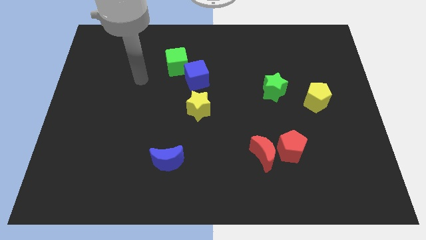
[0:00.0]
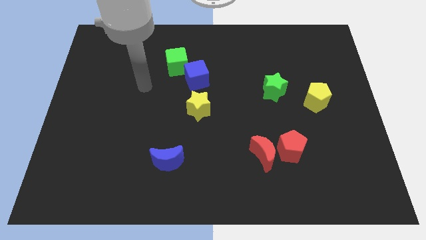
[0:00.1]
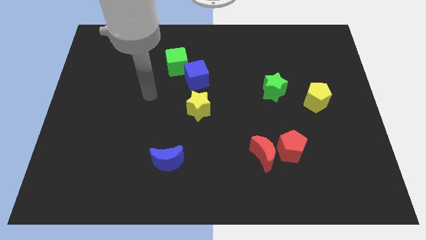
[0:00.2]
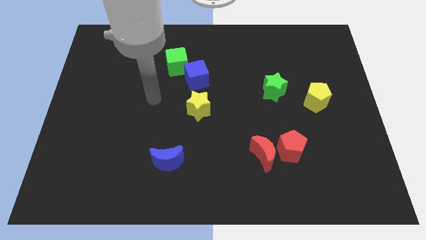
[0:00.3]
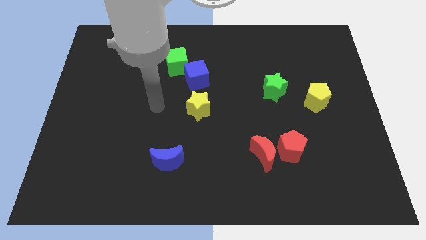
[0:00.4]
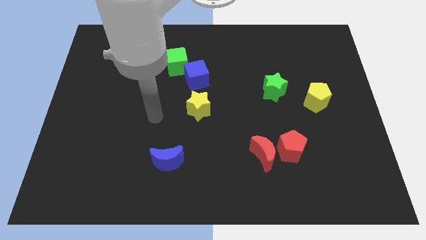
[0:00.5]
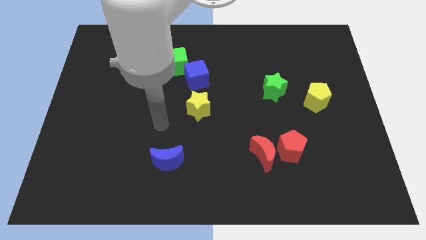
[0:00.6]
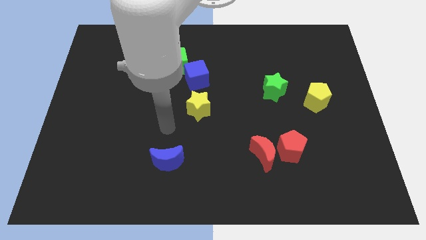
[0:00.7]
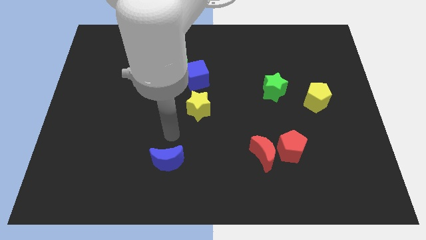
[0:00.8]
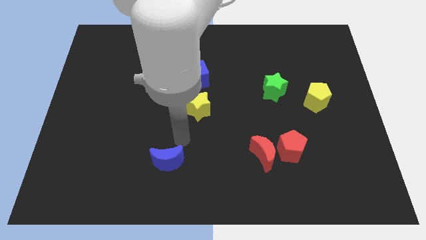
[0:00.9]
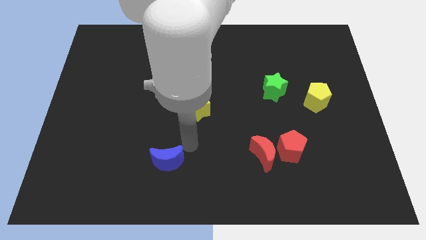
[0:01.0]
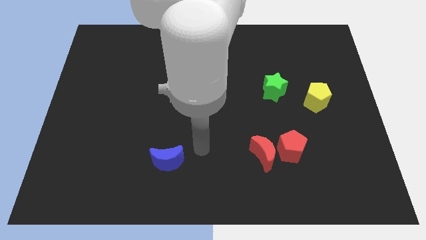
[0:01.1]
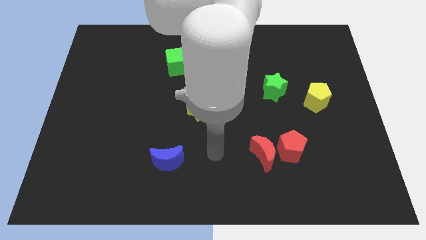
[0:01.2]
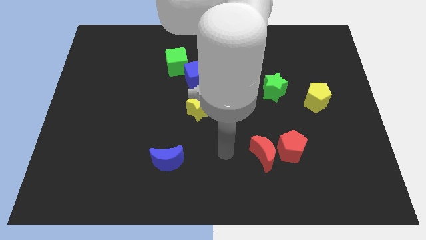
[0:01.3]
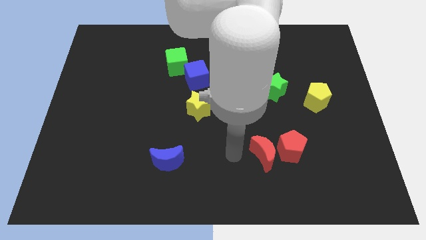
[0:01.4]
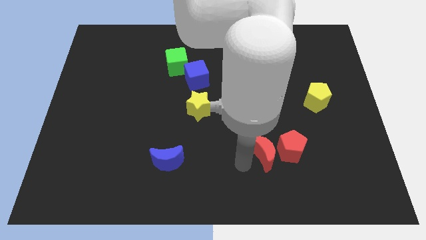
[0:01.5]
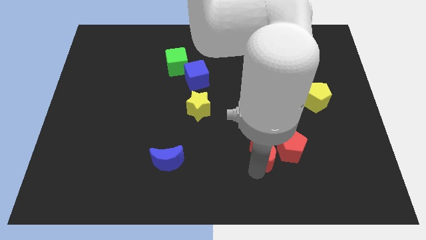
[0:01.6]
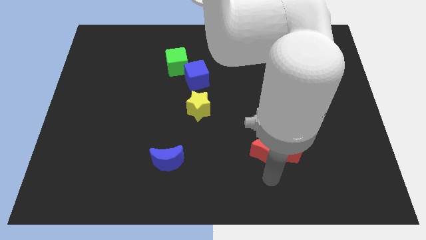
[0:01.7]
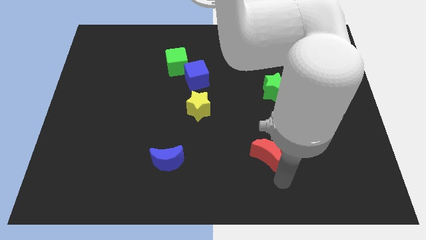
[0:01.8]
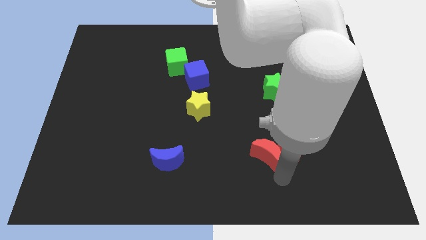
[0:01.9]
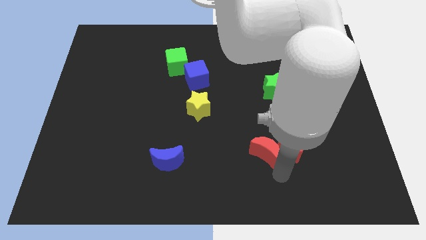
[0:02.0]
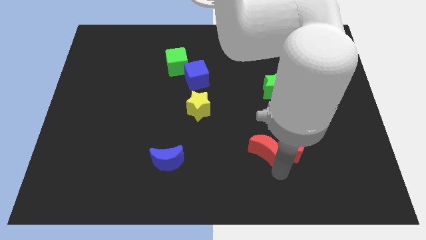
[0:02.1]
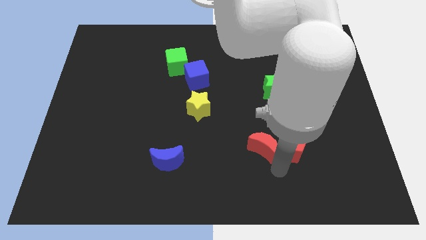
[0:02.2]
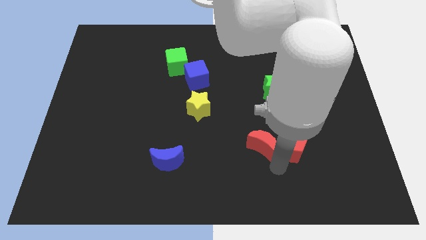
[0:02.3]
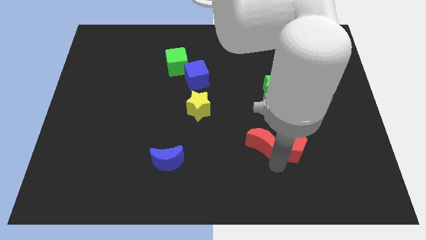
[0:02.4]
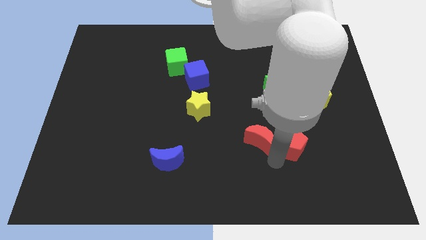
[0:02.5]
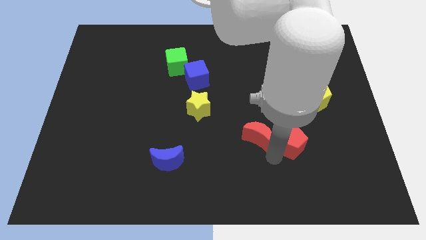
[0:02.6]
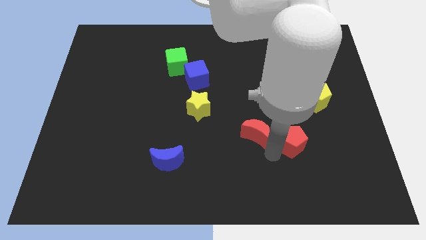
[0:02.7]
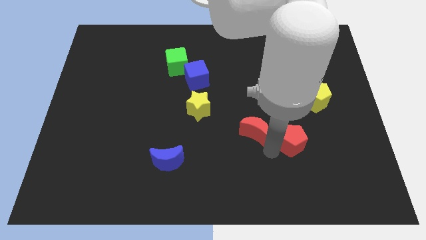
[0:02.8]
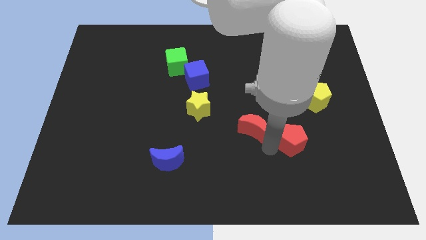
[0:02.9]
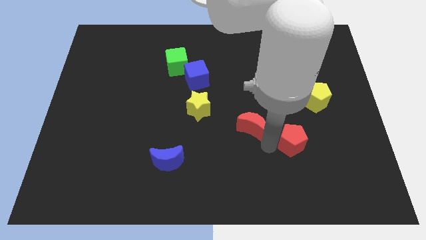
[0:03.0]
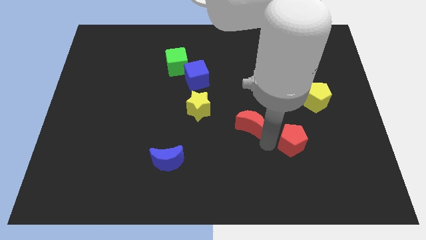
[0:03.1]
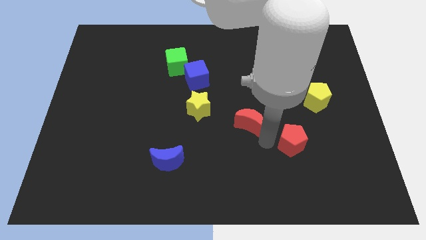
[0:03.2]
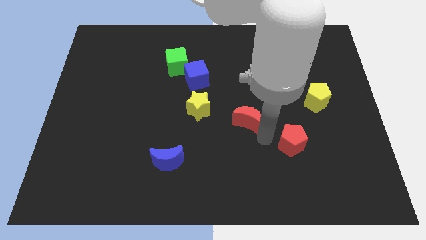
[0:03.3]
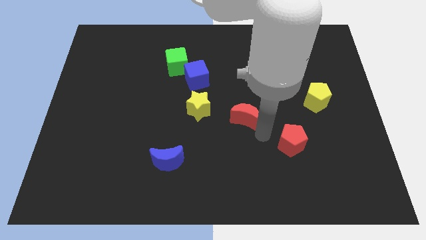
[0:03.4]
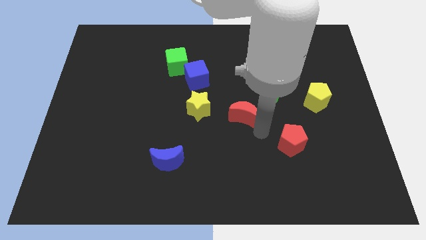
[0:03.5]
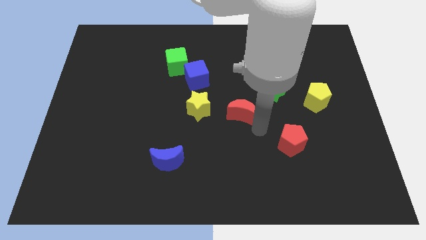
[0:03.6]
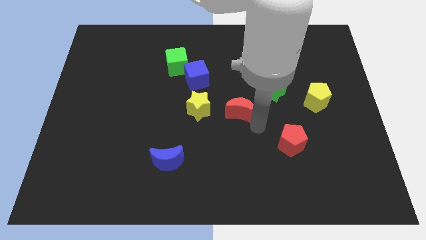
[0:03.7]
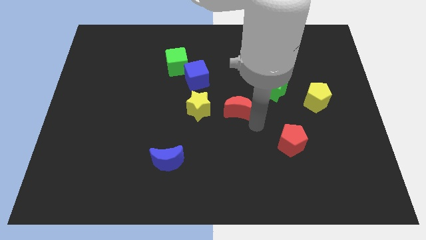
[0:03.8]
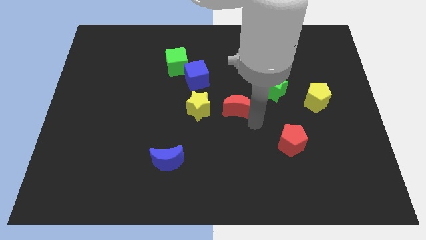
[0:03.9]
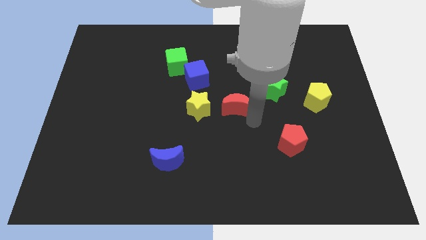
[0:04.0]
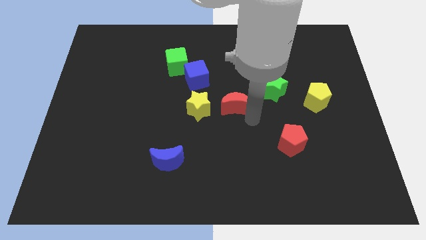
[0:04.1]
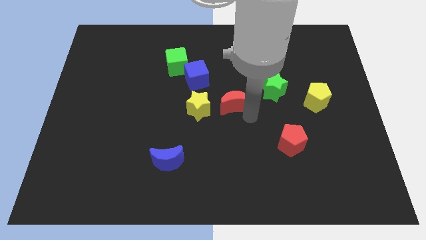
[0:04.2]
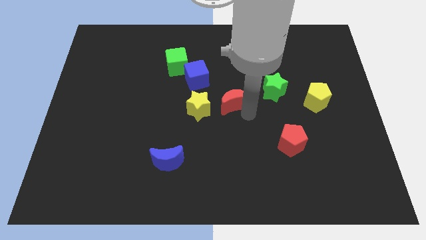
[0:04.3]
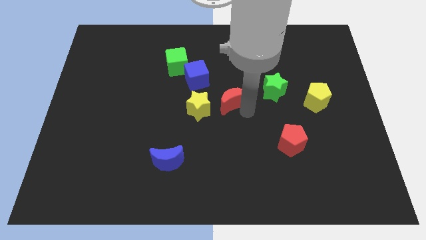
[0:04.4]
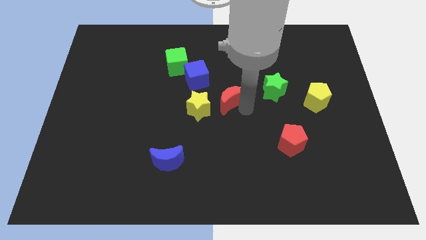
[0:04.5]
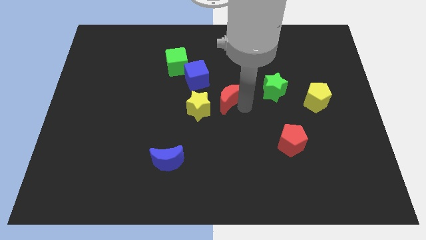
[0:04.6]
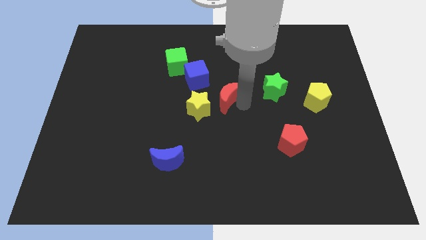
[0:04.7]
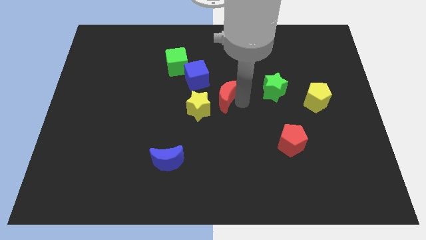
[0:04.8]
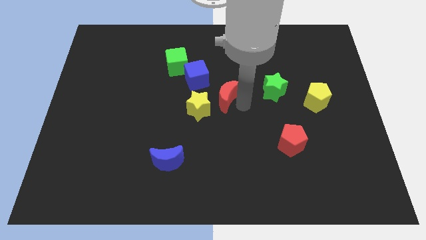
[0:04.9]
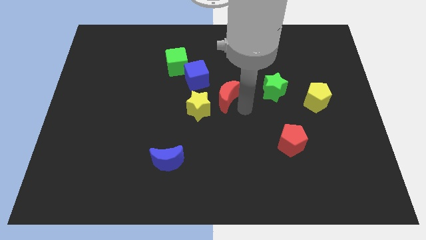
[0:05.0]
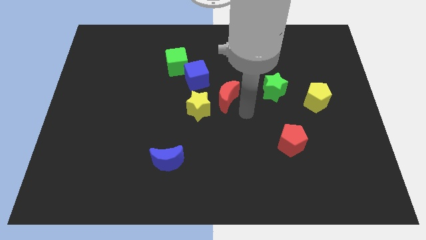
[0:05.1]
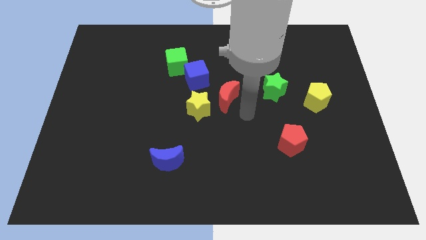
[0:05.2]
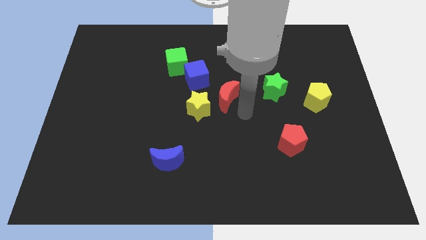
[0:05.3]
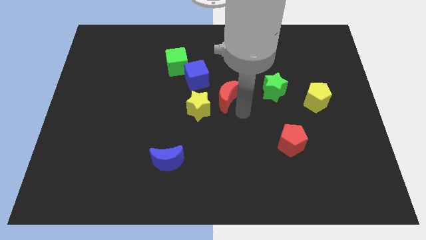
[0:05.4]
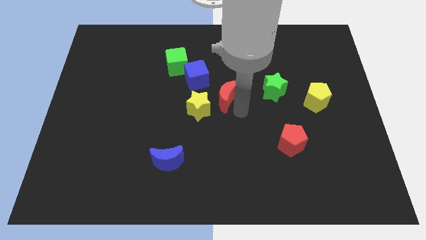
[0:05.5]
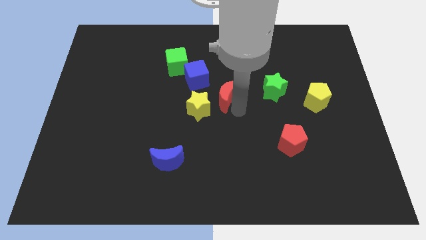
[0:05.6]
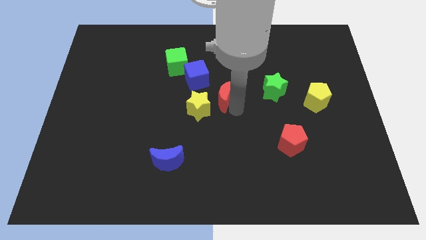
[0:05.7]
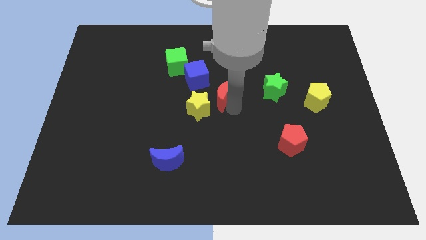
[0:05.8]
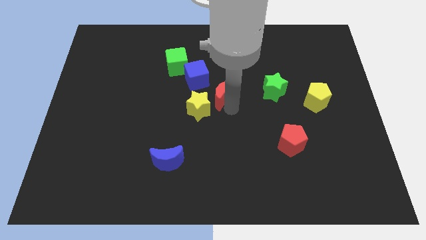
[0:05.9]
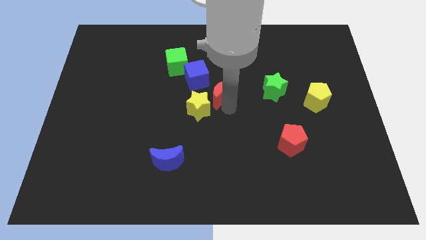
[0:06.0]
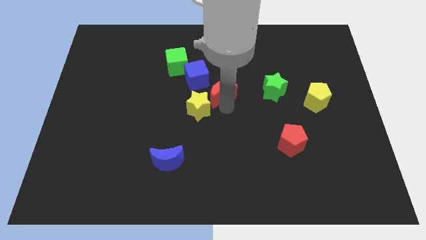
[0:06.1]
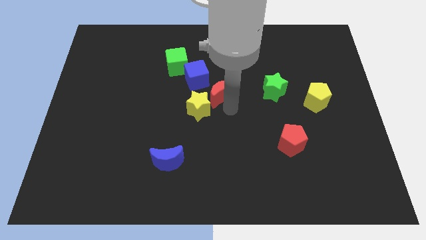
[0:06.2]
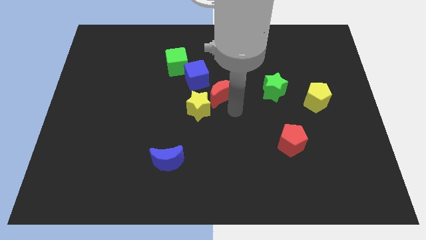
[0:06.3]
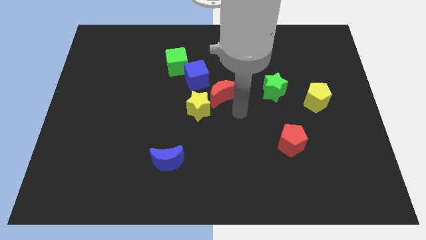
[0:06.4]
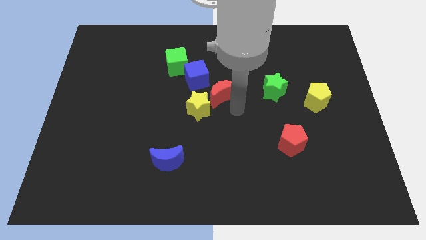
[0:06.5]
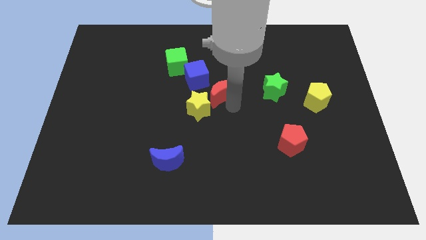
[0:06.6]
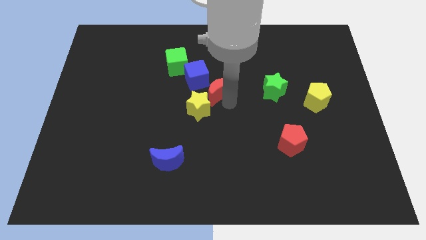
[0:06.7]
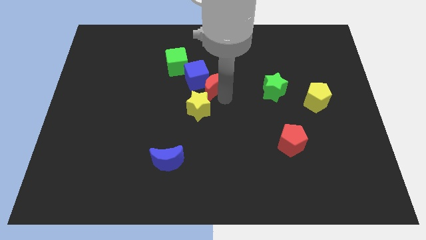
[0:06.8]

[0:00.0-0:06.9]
slide the red moon to the blue cube

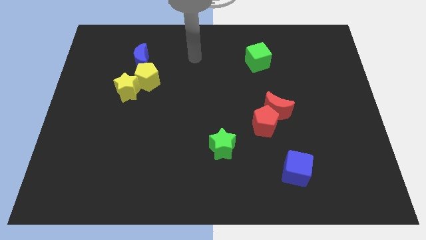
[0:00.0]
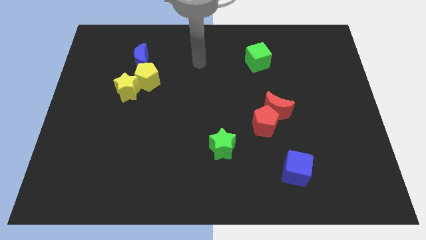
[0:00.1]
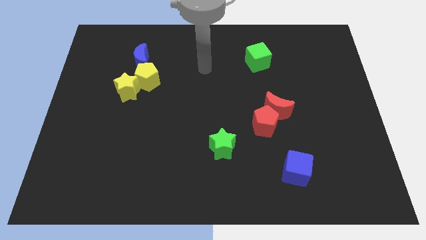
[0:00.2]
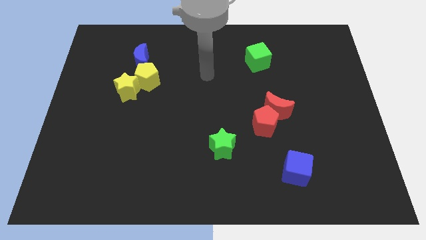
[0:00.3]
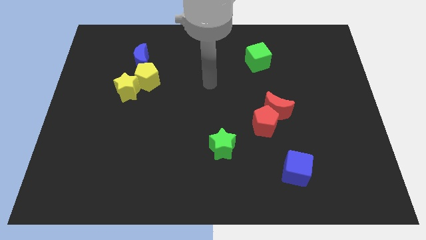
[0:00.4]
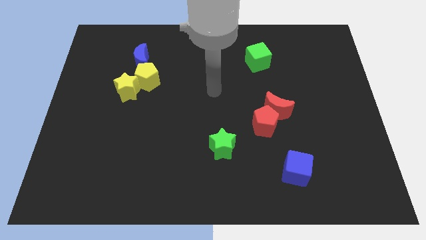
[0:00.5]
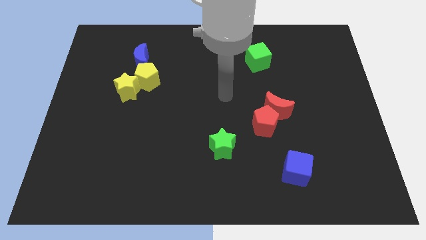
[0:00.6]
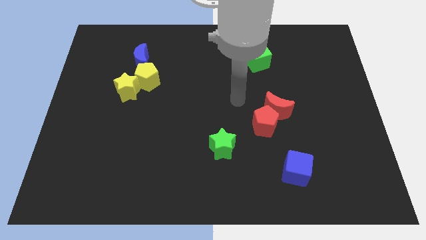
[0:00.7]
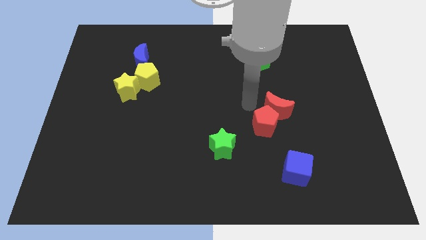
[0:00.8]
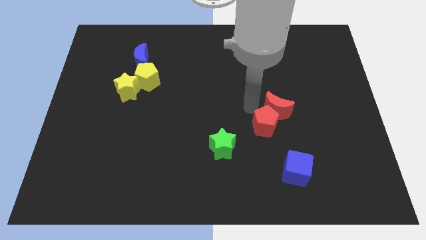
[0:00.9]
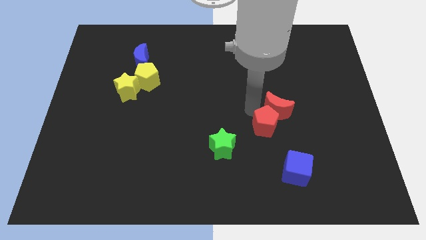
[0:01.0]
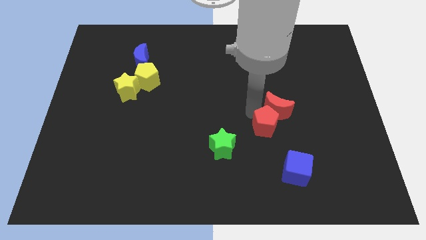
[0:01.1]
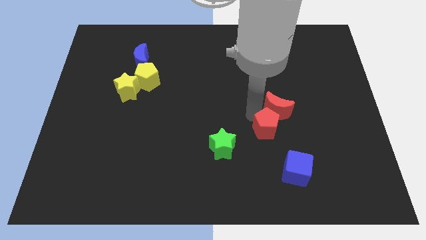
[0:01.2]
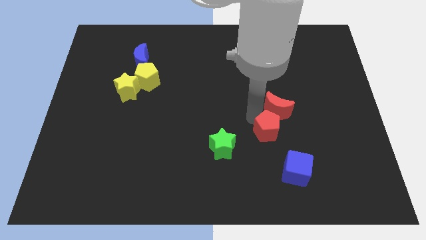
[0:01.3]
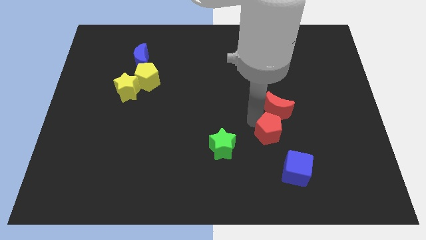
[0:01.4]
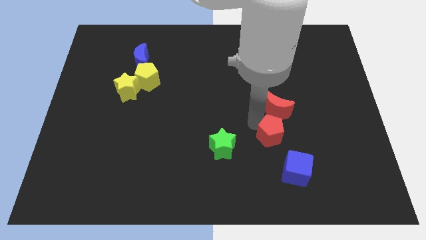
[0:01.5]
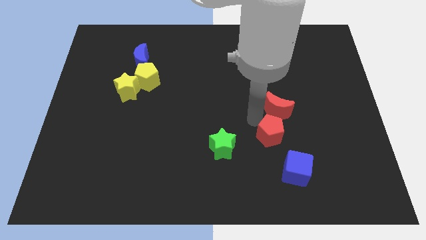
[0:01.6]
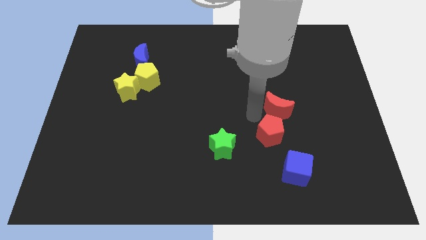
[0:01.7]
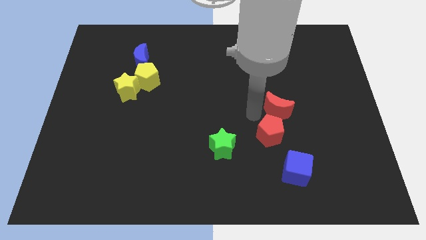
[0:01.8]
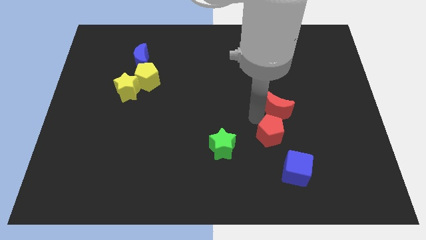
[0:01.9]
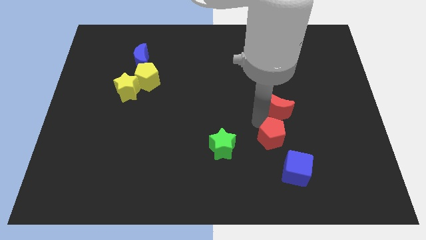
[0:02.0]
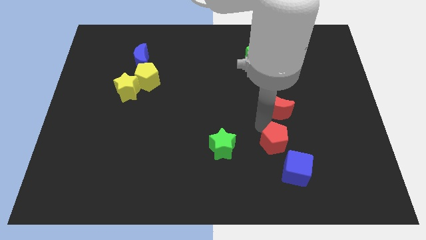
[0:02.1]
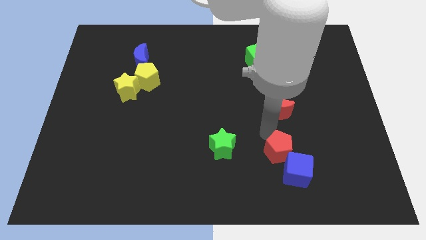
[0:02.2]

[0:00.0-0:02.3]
move the red pentagon towards the blue cube
